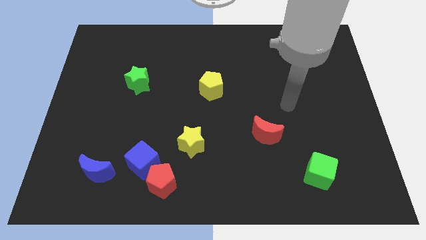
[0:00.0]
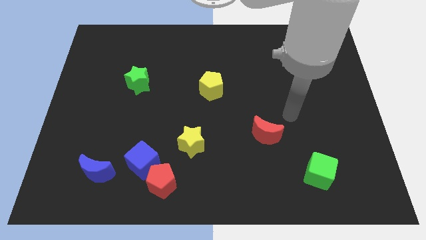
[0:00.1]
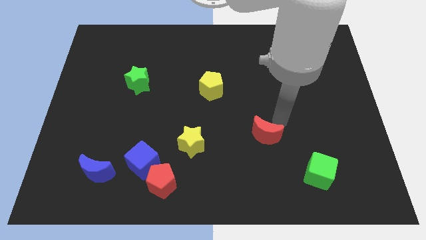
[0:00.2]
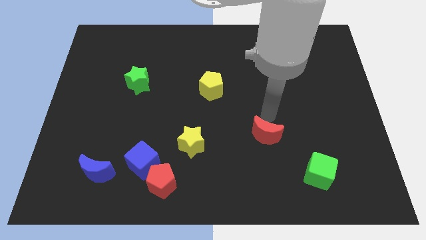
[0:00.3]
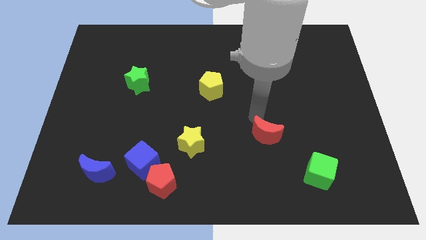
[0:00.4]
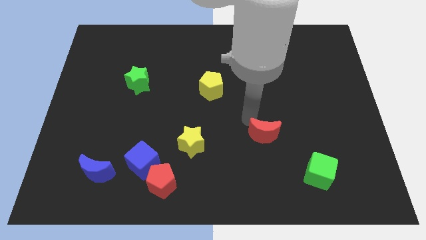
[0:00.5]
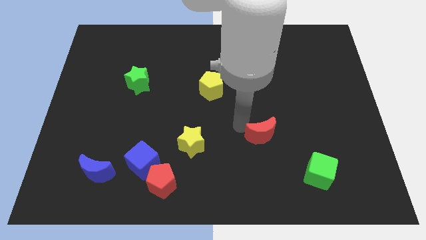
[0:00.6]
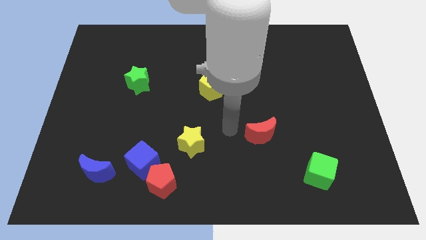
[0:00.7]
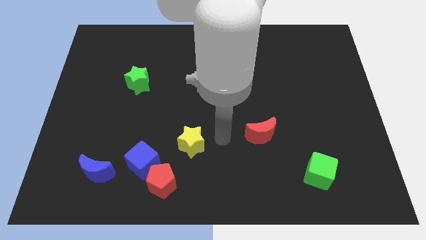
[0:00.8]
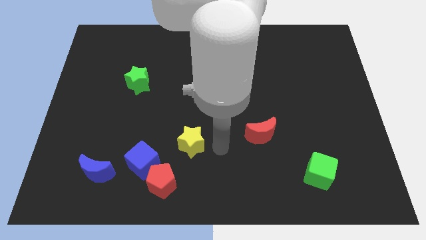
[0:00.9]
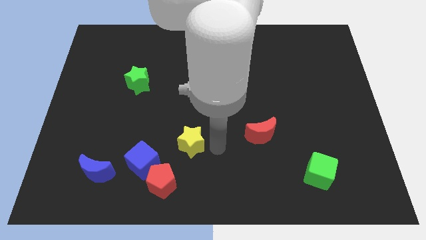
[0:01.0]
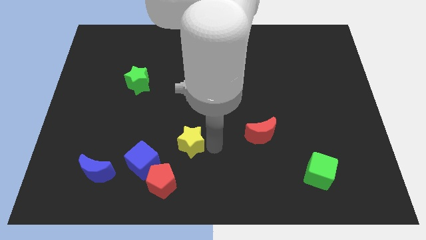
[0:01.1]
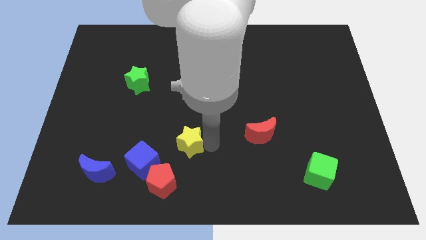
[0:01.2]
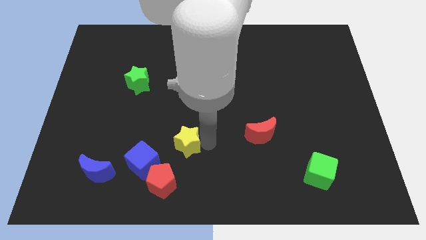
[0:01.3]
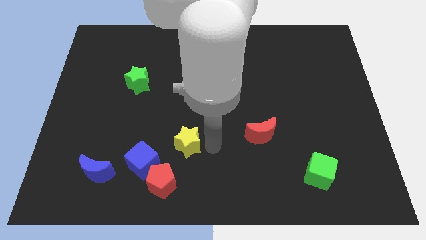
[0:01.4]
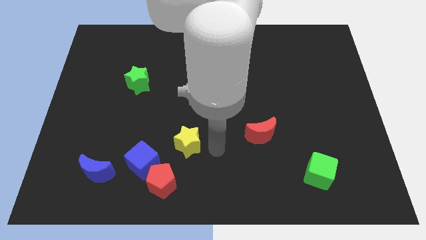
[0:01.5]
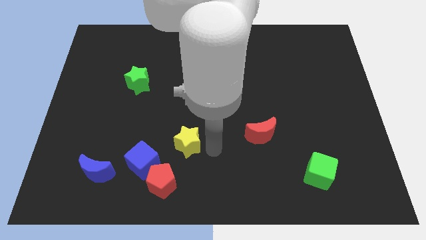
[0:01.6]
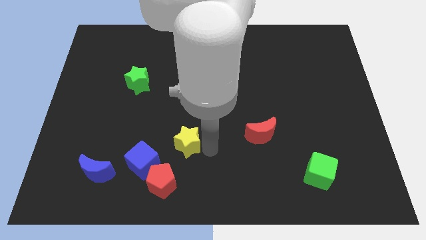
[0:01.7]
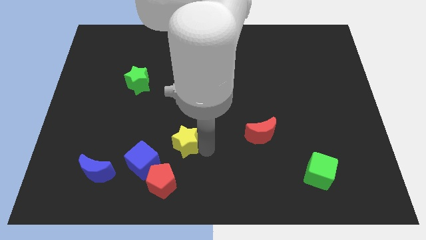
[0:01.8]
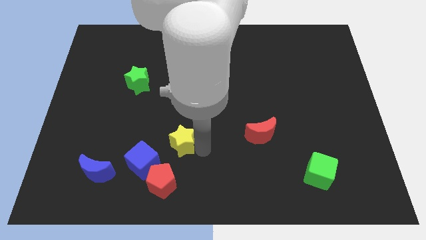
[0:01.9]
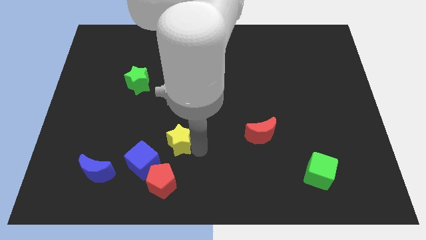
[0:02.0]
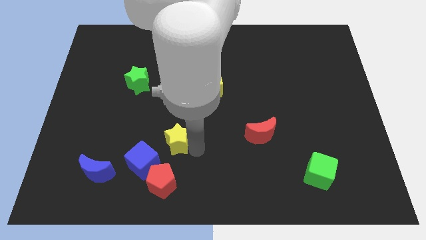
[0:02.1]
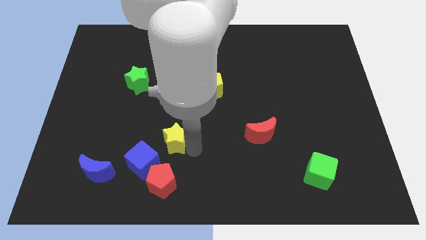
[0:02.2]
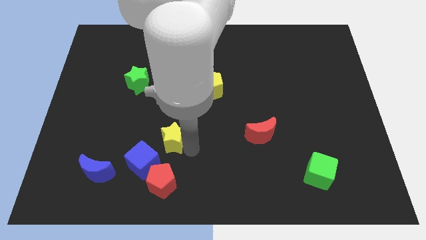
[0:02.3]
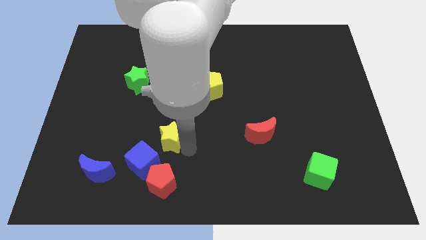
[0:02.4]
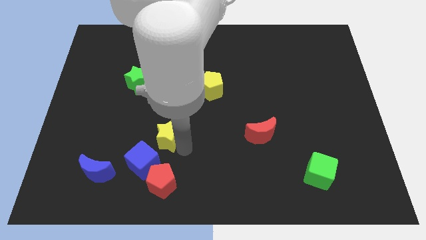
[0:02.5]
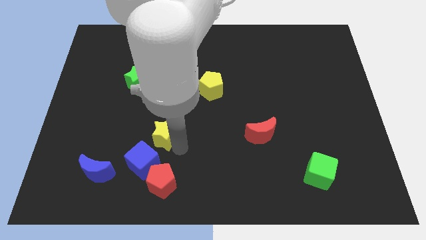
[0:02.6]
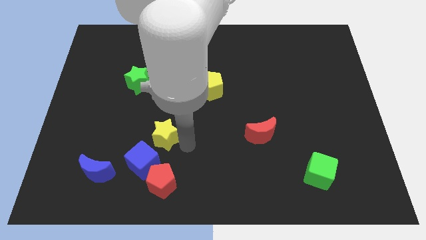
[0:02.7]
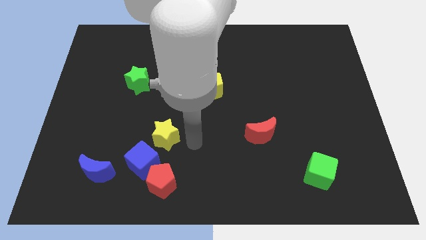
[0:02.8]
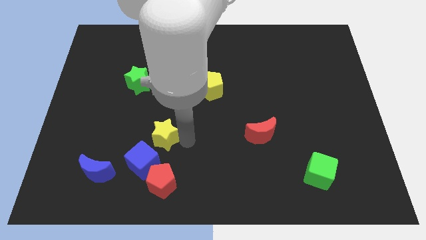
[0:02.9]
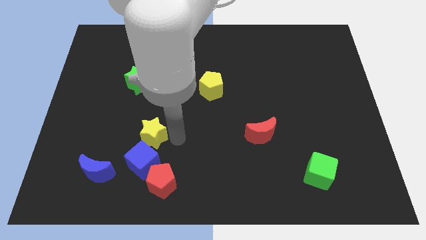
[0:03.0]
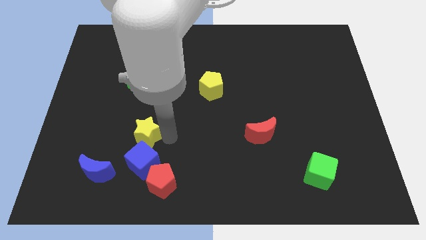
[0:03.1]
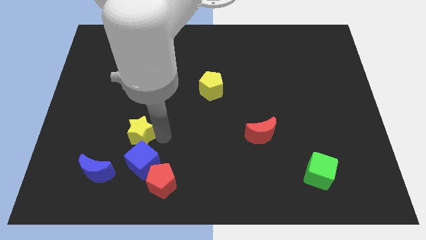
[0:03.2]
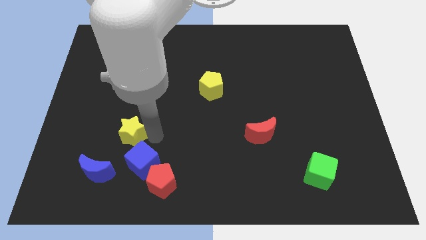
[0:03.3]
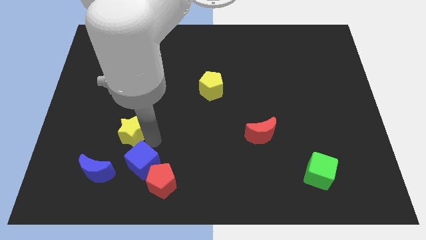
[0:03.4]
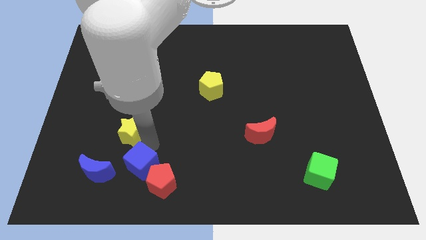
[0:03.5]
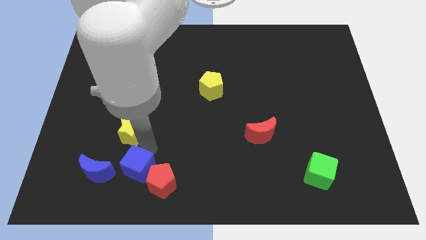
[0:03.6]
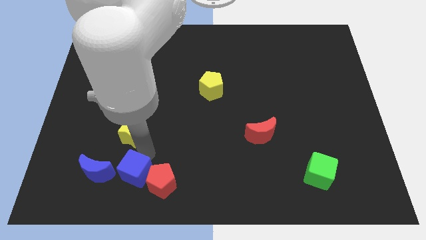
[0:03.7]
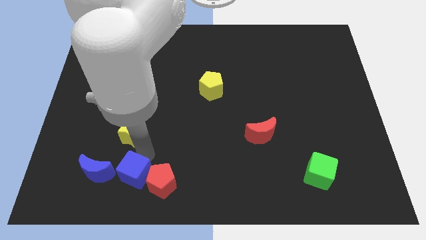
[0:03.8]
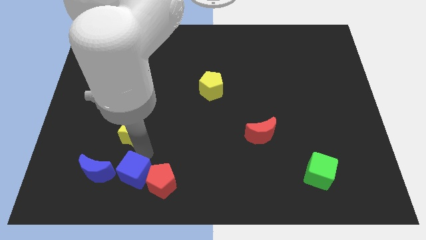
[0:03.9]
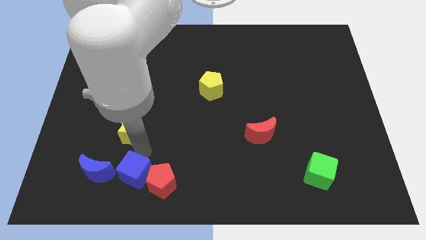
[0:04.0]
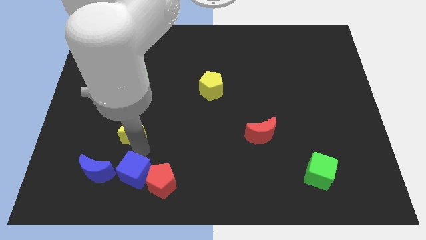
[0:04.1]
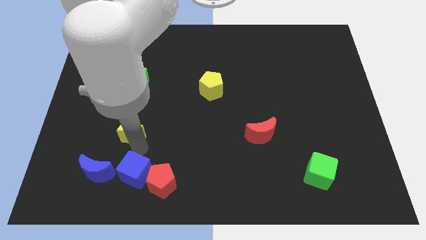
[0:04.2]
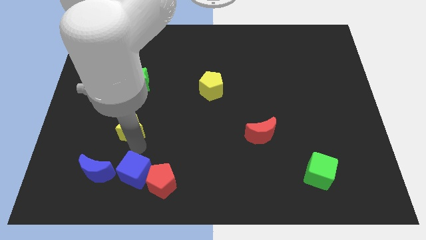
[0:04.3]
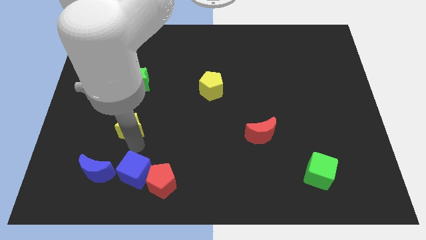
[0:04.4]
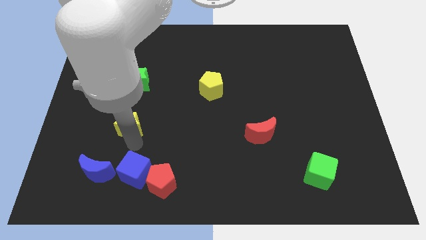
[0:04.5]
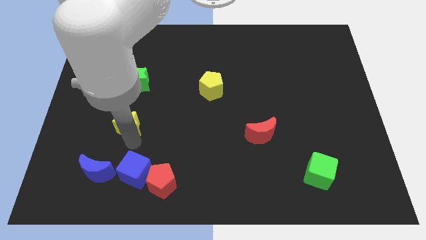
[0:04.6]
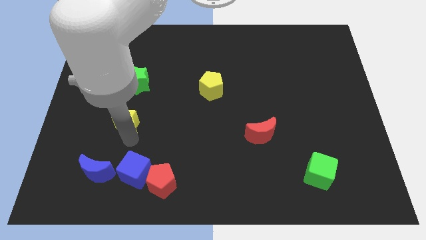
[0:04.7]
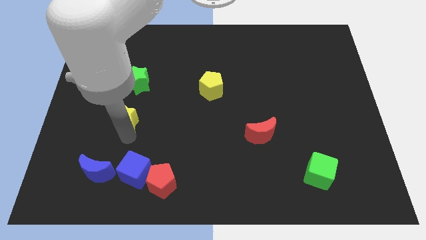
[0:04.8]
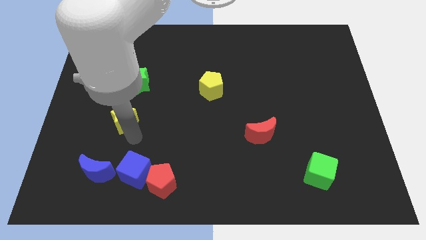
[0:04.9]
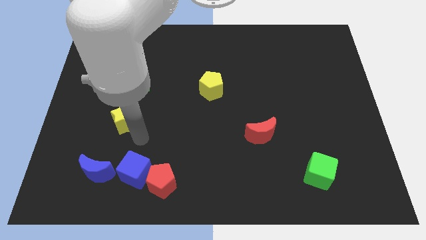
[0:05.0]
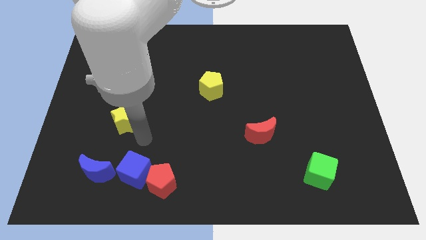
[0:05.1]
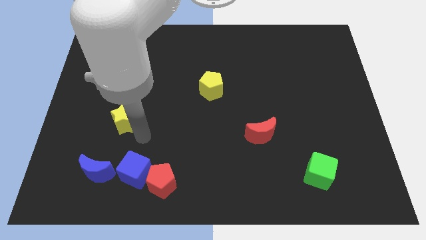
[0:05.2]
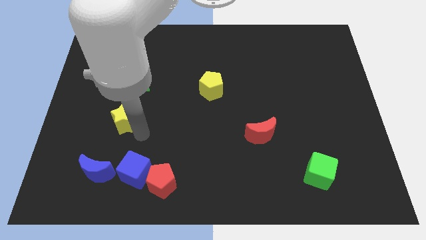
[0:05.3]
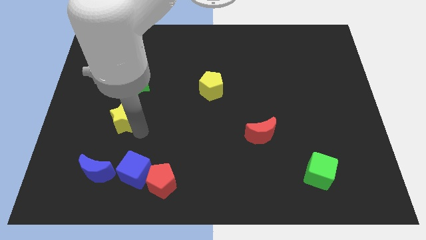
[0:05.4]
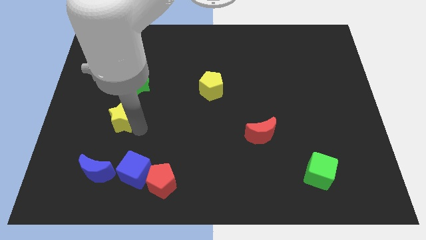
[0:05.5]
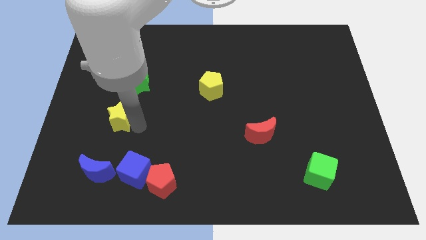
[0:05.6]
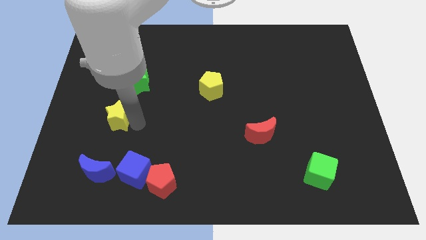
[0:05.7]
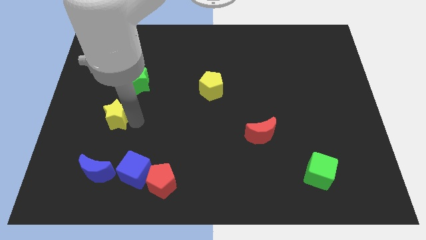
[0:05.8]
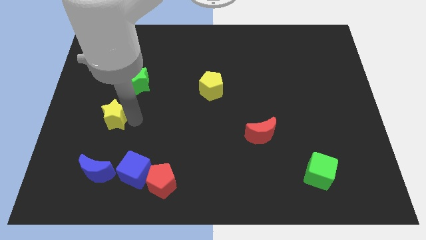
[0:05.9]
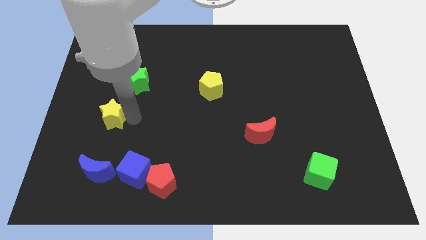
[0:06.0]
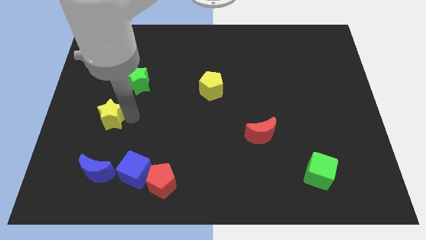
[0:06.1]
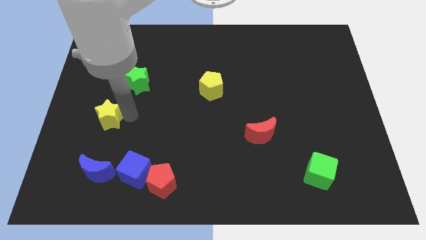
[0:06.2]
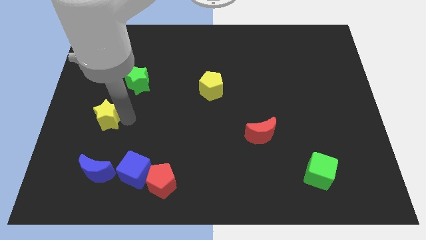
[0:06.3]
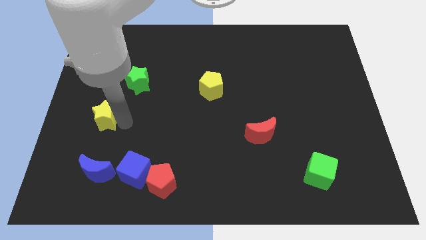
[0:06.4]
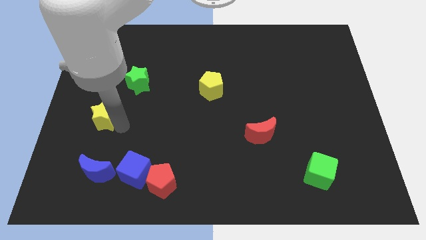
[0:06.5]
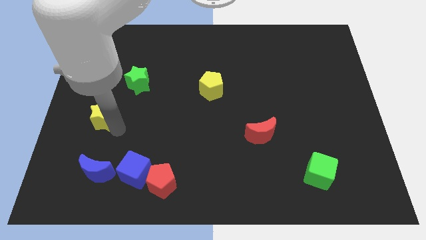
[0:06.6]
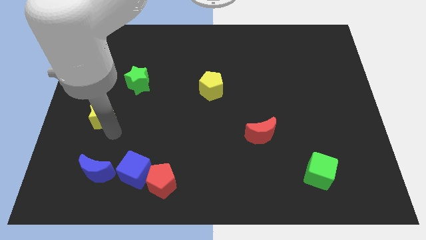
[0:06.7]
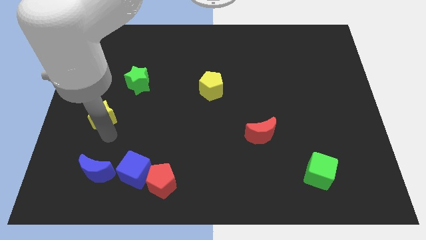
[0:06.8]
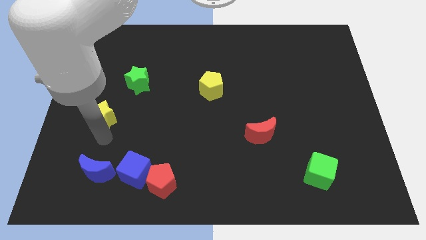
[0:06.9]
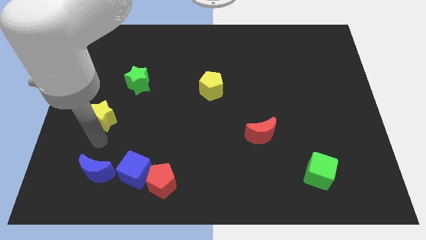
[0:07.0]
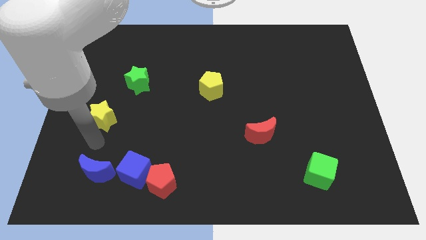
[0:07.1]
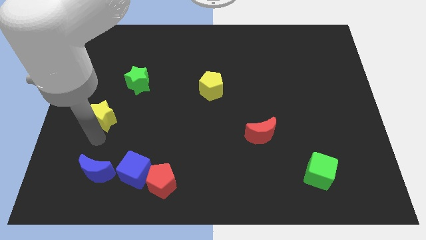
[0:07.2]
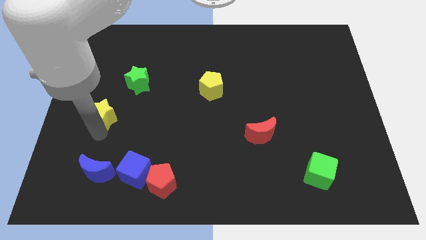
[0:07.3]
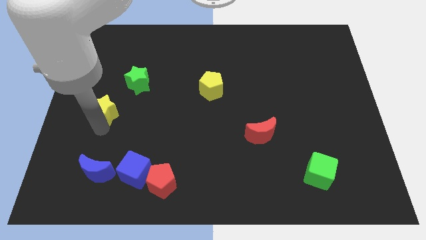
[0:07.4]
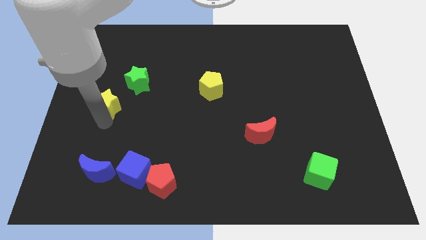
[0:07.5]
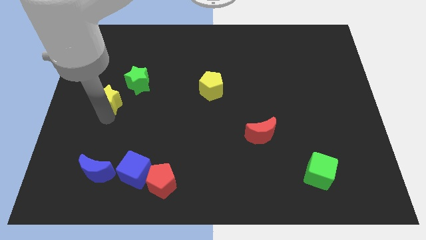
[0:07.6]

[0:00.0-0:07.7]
slide the yellow star diagonally up and left

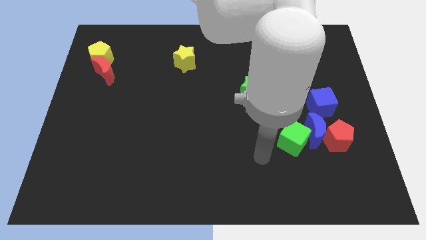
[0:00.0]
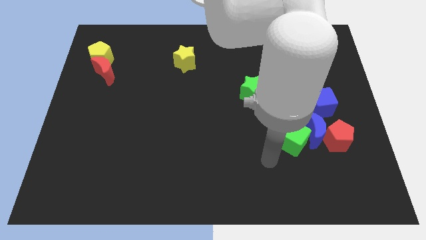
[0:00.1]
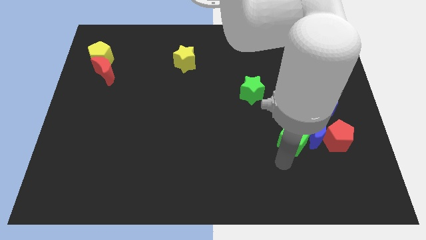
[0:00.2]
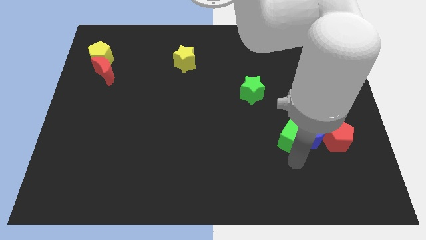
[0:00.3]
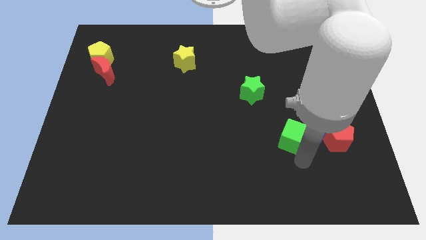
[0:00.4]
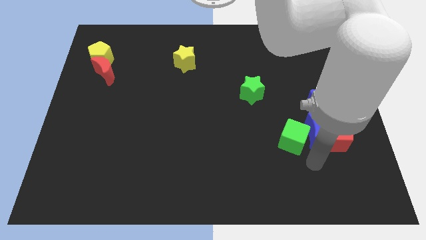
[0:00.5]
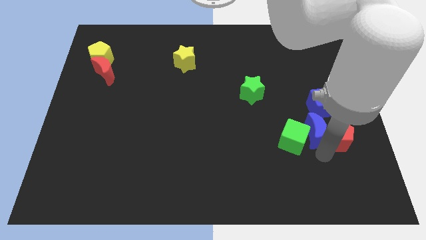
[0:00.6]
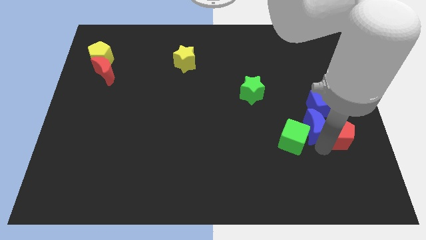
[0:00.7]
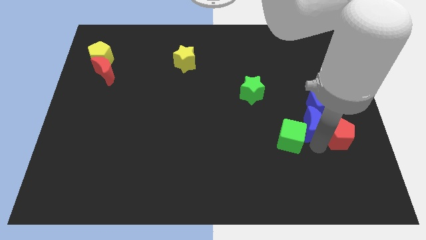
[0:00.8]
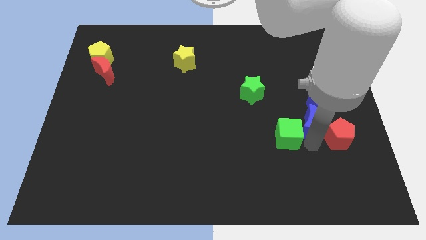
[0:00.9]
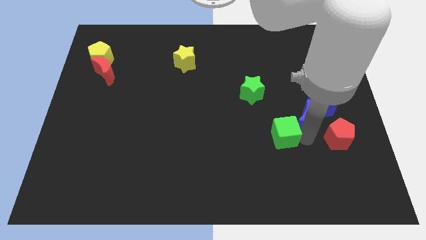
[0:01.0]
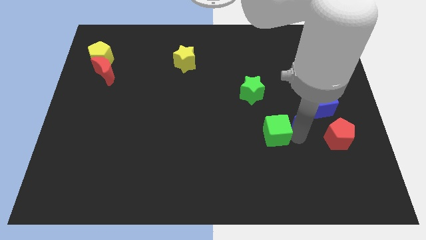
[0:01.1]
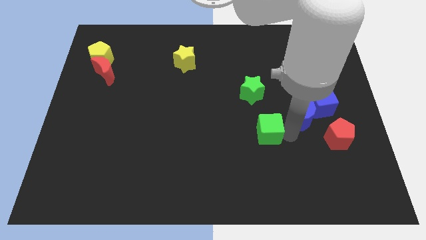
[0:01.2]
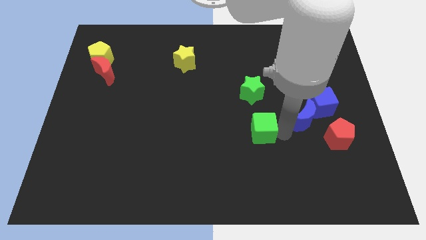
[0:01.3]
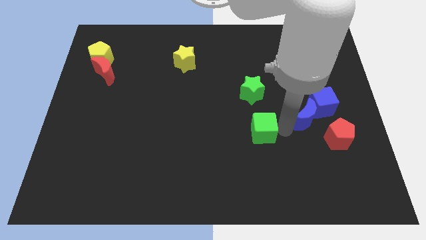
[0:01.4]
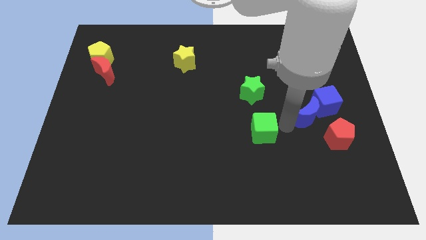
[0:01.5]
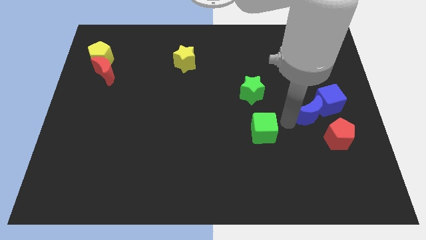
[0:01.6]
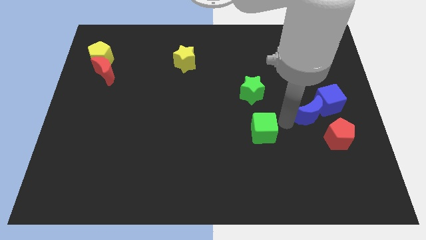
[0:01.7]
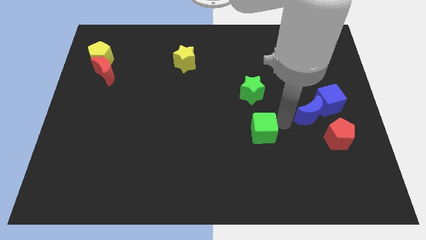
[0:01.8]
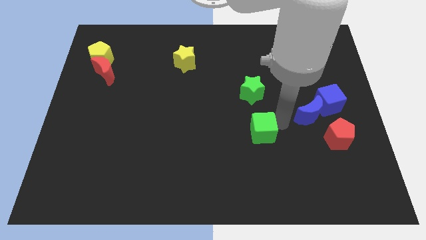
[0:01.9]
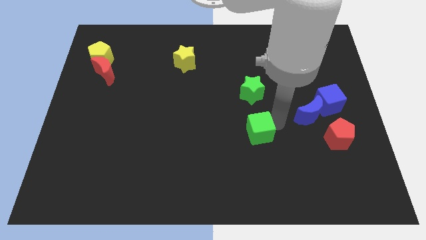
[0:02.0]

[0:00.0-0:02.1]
slightly push the green cube left
